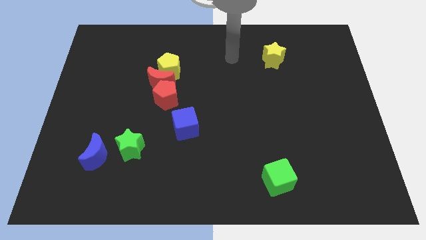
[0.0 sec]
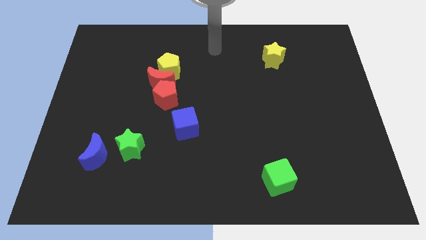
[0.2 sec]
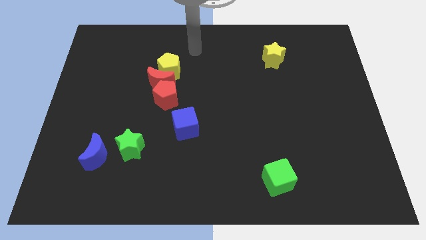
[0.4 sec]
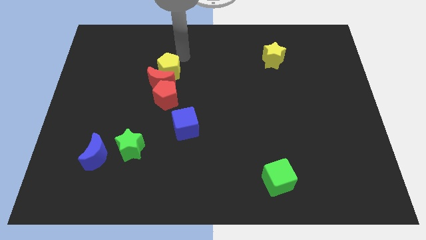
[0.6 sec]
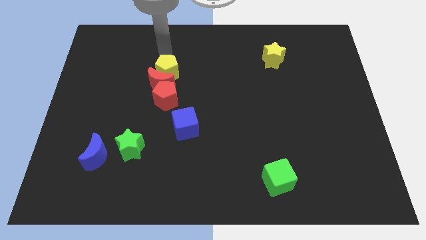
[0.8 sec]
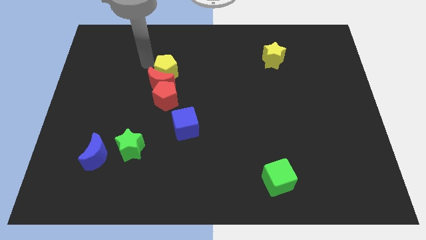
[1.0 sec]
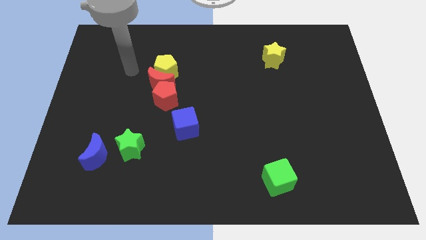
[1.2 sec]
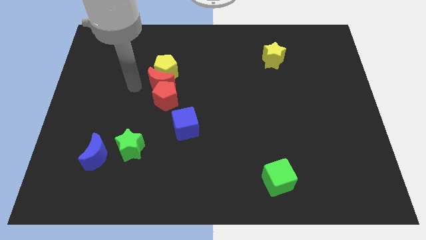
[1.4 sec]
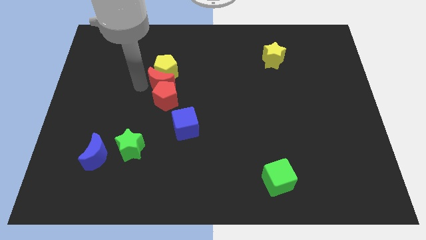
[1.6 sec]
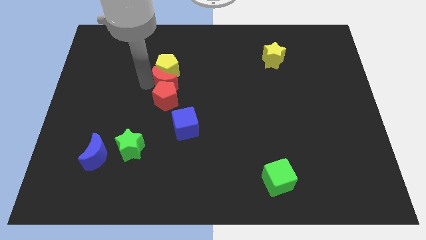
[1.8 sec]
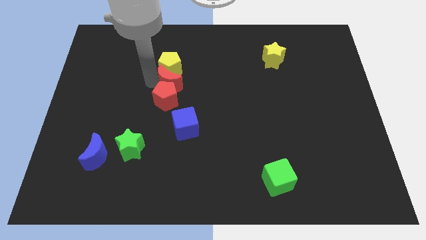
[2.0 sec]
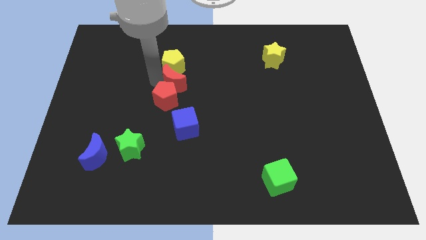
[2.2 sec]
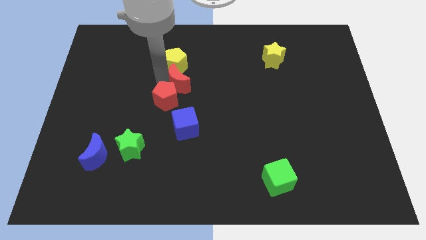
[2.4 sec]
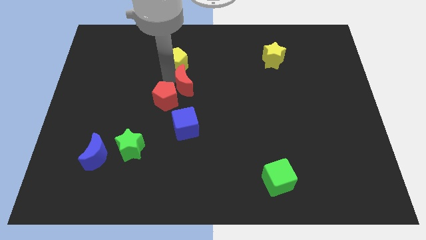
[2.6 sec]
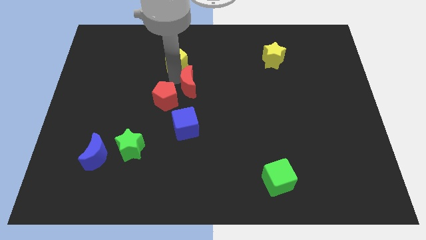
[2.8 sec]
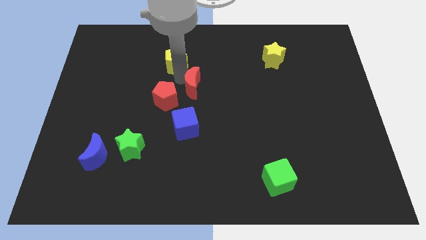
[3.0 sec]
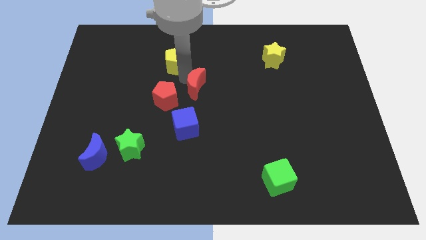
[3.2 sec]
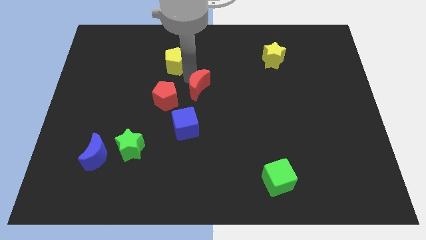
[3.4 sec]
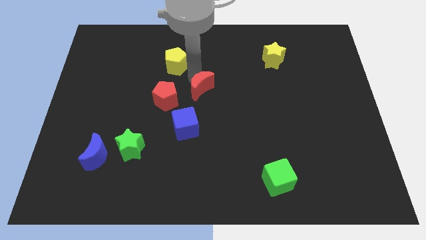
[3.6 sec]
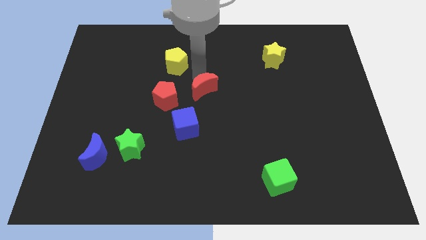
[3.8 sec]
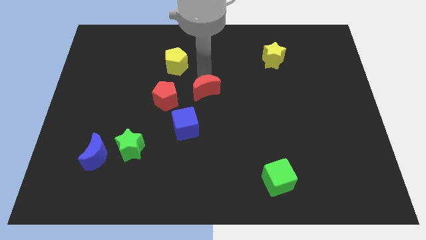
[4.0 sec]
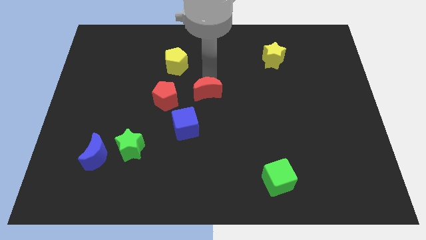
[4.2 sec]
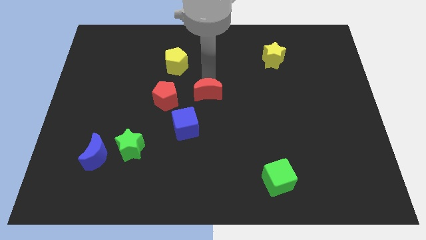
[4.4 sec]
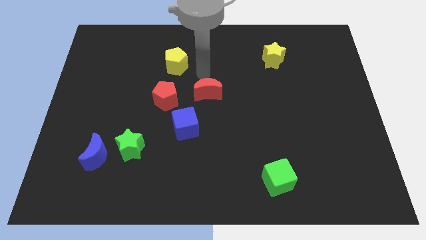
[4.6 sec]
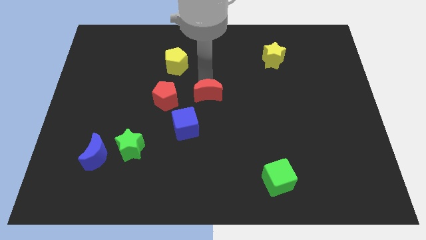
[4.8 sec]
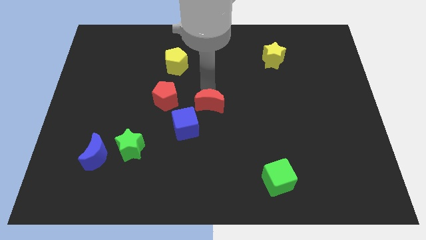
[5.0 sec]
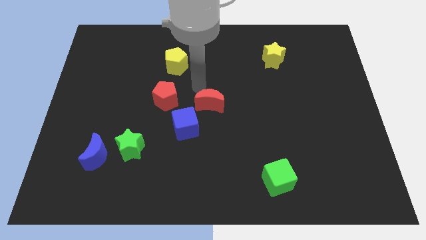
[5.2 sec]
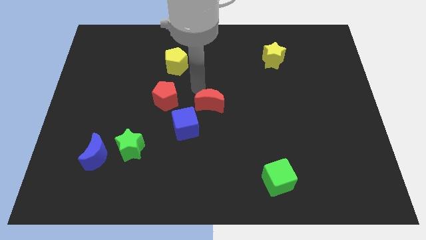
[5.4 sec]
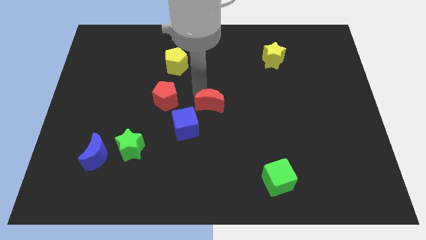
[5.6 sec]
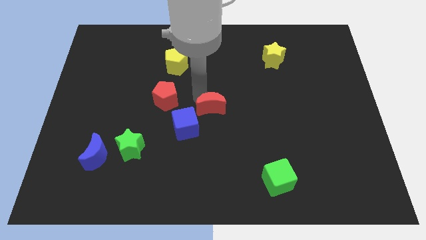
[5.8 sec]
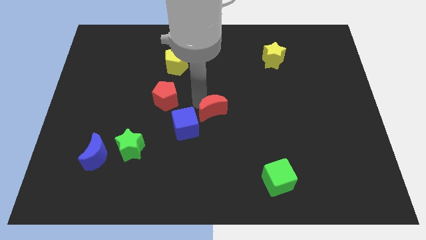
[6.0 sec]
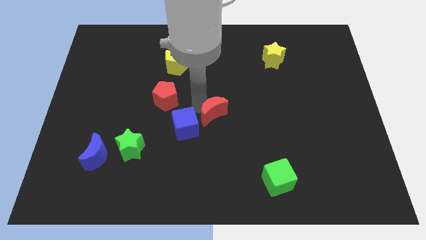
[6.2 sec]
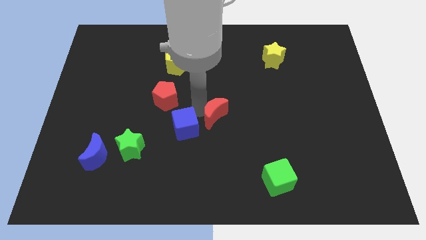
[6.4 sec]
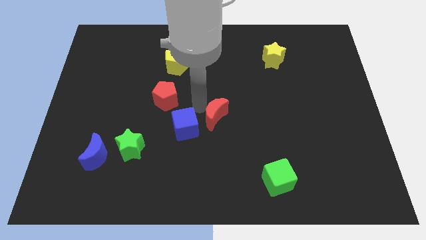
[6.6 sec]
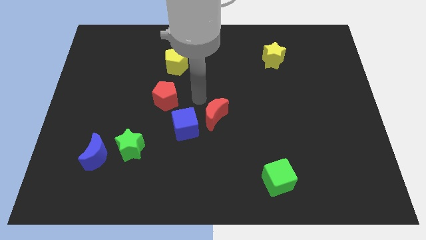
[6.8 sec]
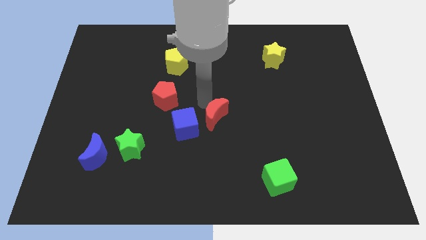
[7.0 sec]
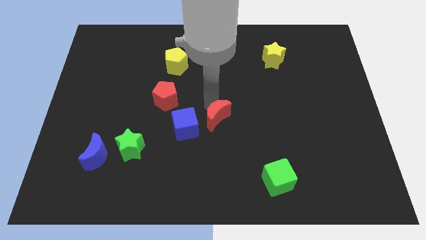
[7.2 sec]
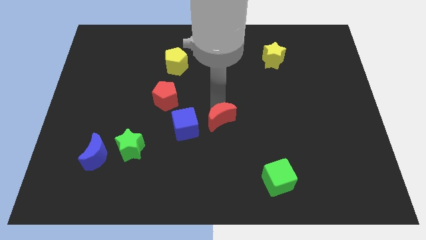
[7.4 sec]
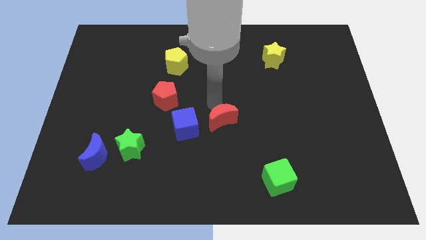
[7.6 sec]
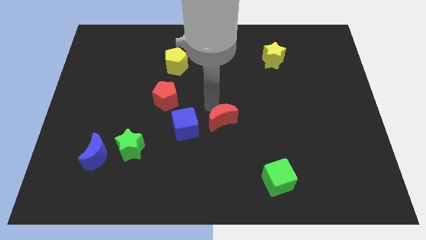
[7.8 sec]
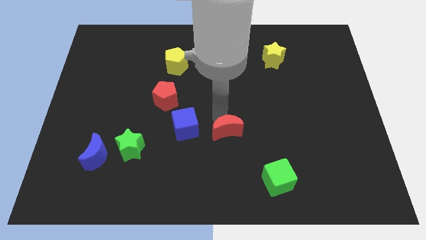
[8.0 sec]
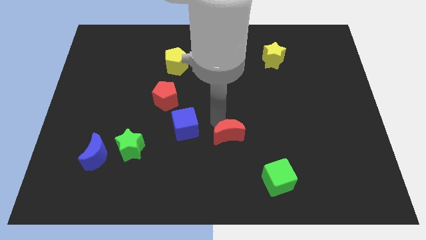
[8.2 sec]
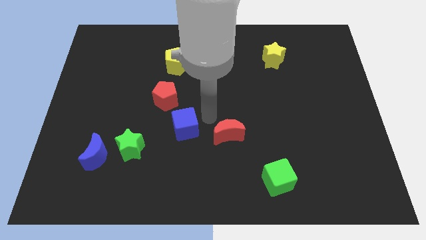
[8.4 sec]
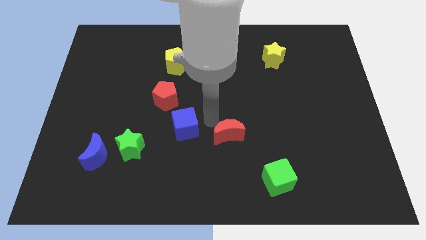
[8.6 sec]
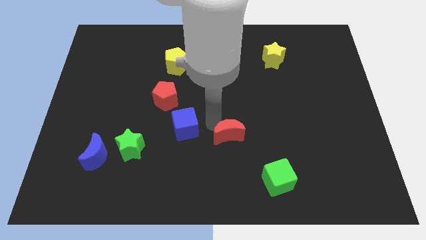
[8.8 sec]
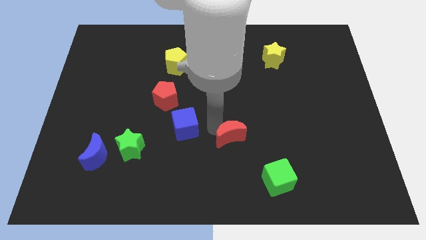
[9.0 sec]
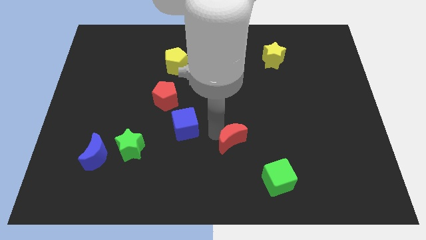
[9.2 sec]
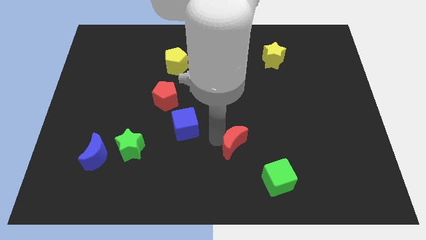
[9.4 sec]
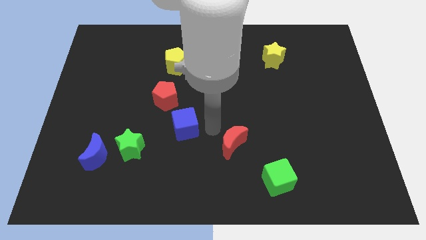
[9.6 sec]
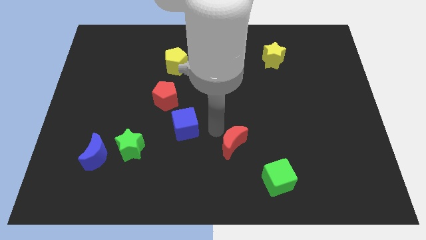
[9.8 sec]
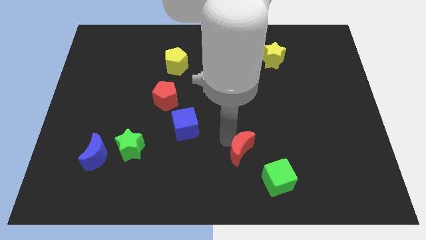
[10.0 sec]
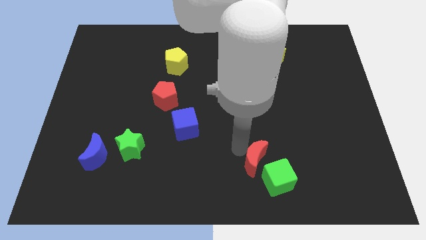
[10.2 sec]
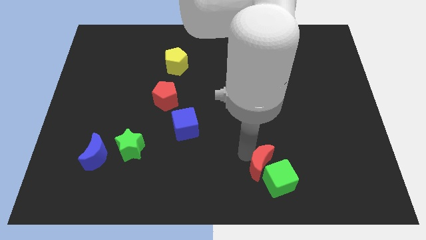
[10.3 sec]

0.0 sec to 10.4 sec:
push the red moon towards the green cube

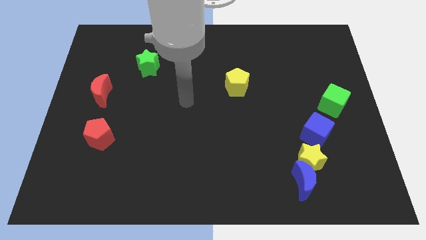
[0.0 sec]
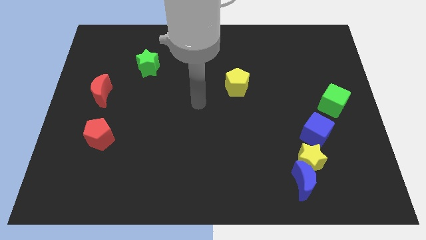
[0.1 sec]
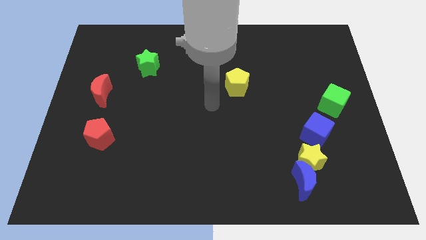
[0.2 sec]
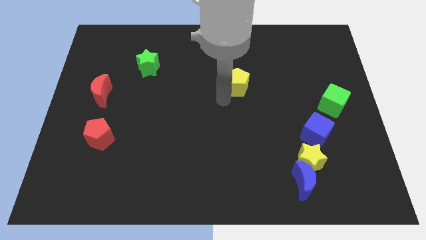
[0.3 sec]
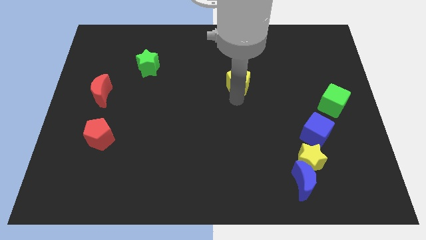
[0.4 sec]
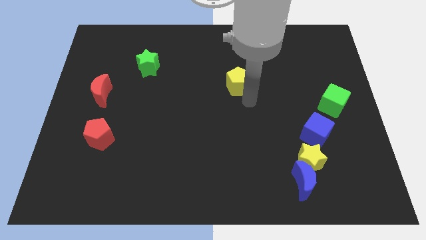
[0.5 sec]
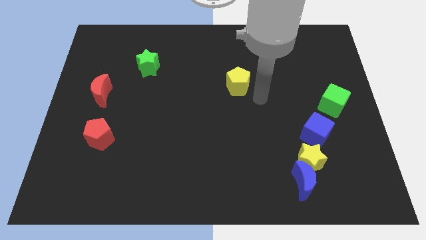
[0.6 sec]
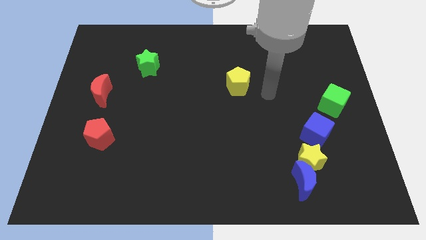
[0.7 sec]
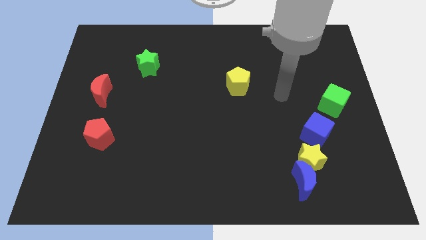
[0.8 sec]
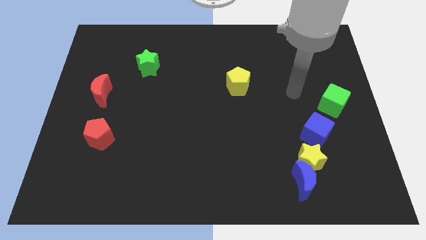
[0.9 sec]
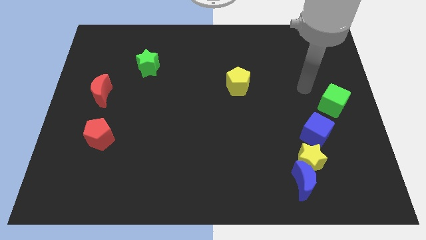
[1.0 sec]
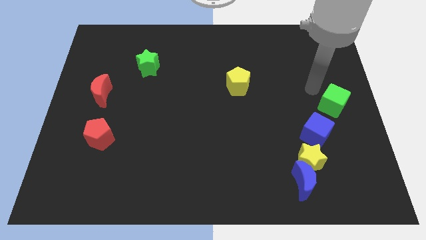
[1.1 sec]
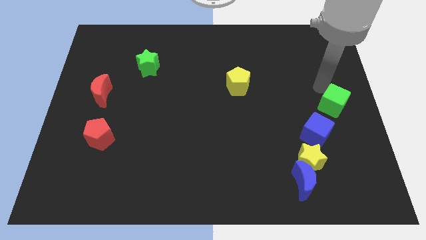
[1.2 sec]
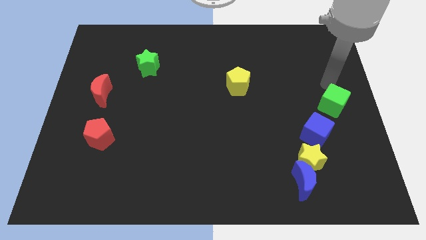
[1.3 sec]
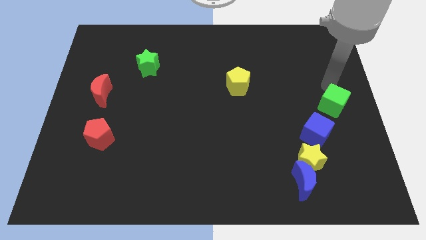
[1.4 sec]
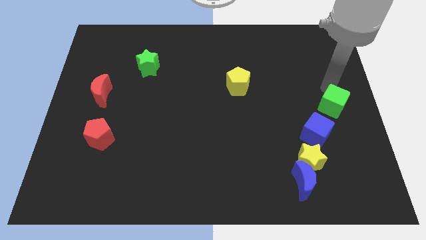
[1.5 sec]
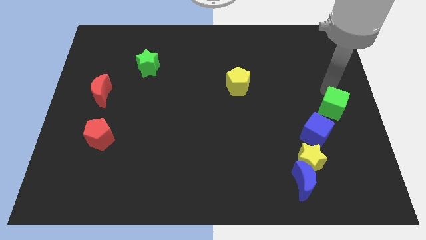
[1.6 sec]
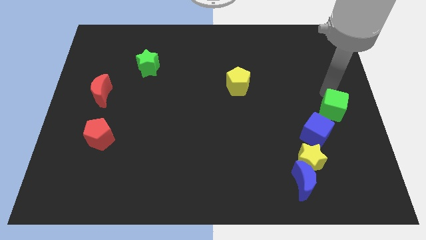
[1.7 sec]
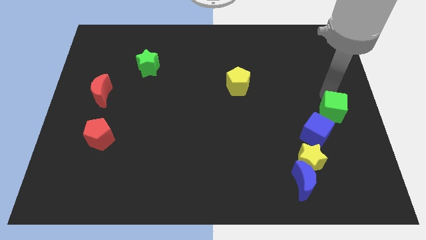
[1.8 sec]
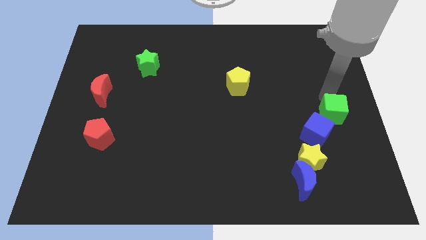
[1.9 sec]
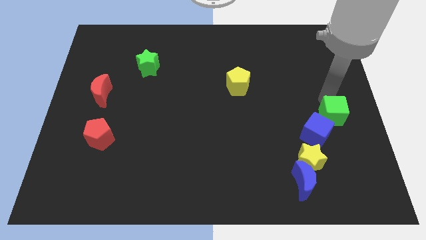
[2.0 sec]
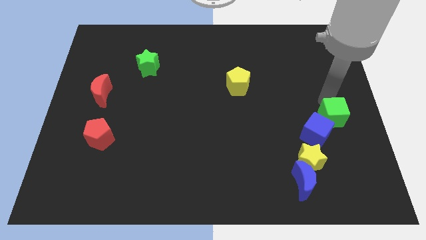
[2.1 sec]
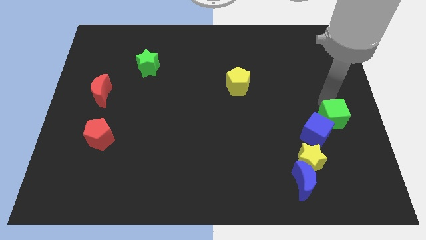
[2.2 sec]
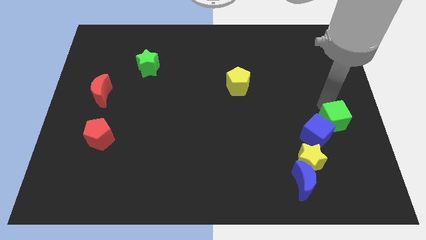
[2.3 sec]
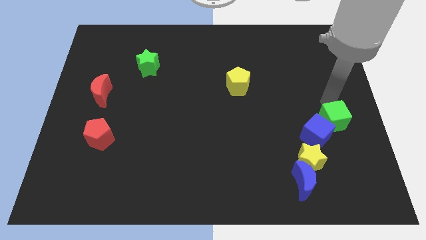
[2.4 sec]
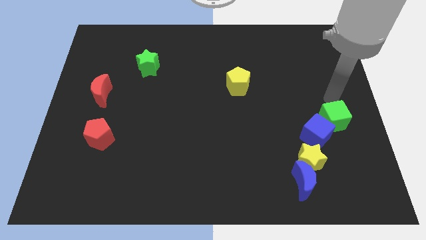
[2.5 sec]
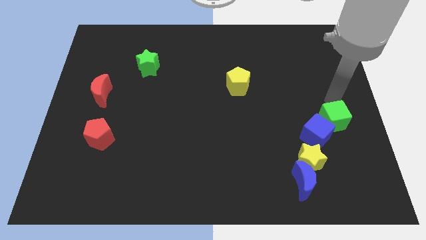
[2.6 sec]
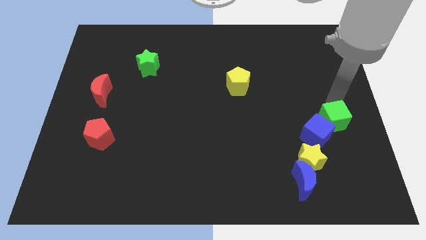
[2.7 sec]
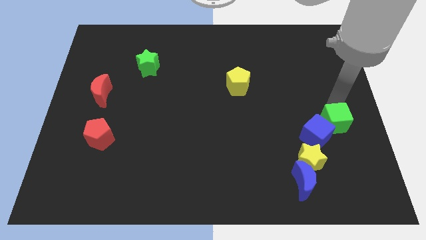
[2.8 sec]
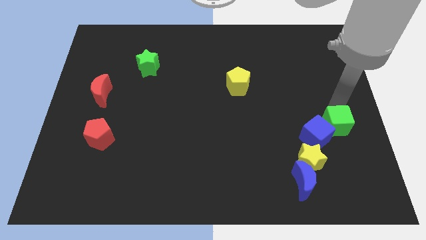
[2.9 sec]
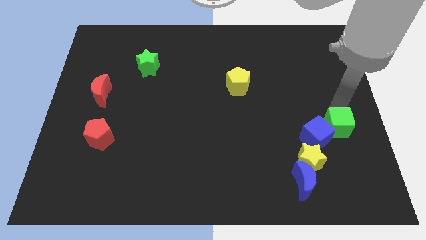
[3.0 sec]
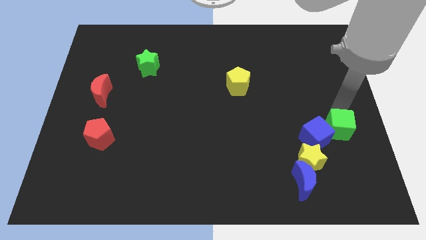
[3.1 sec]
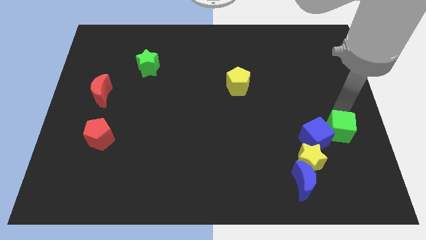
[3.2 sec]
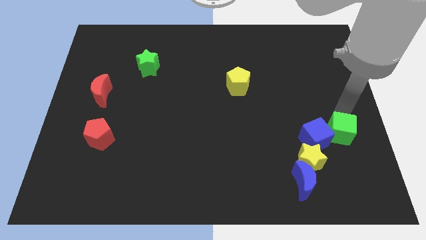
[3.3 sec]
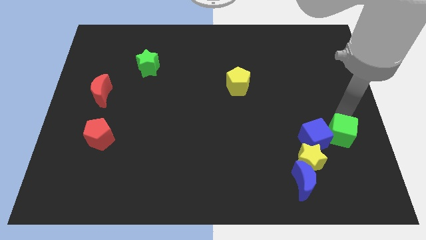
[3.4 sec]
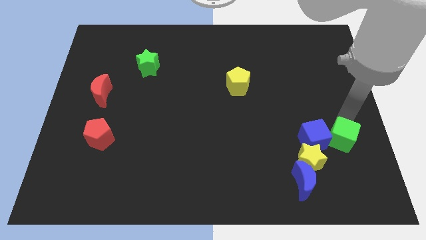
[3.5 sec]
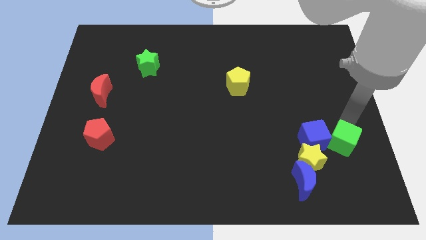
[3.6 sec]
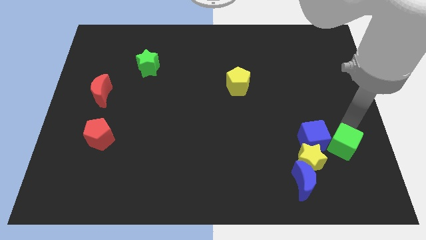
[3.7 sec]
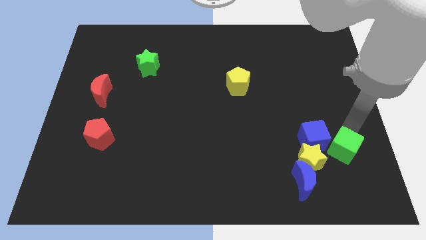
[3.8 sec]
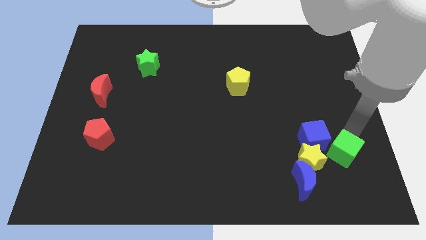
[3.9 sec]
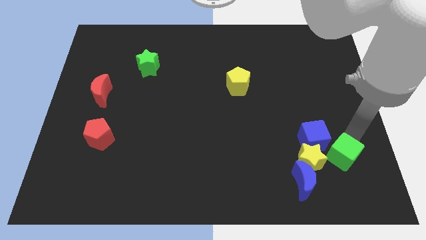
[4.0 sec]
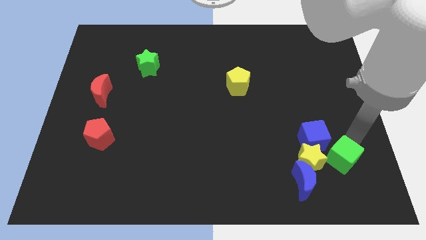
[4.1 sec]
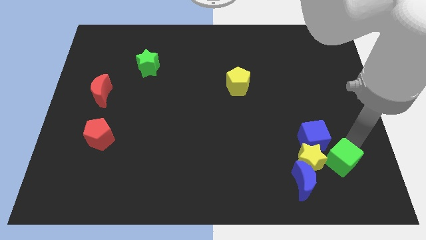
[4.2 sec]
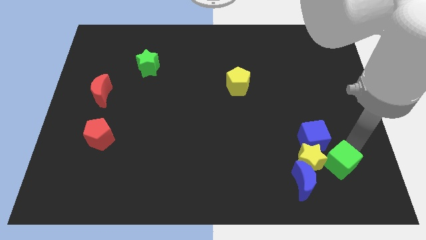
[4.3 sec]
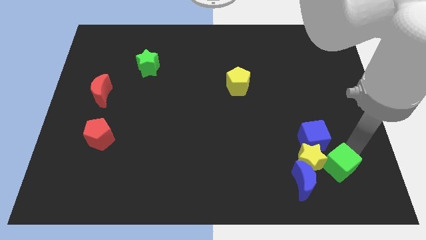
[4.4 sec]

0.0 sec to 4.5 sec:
put the green cube next to the yellow star
